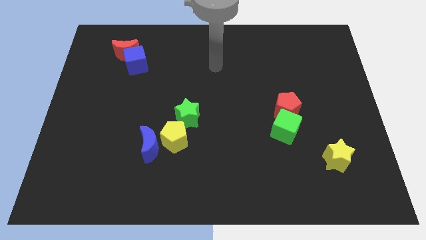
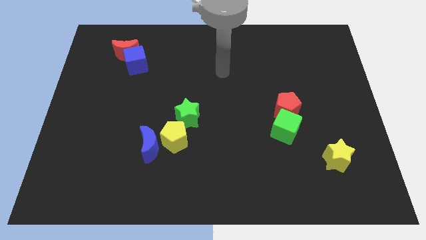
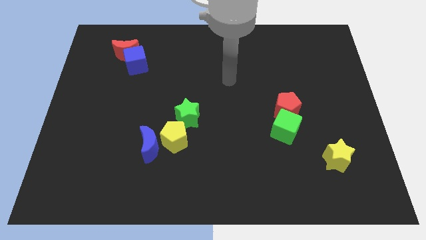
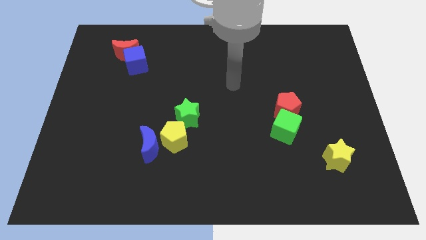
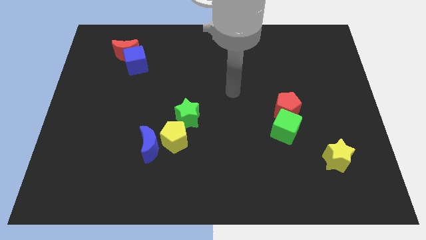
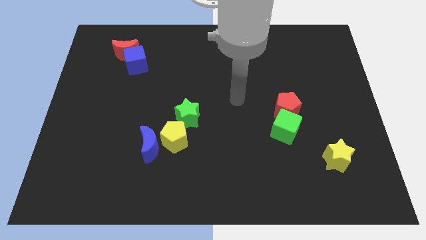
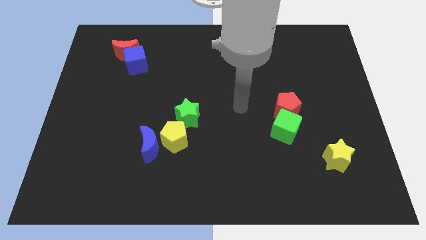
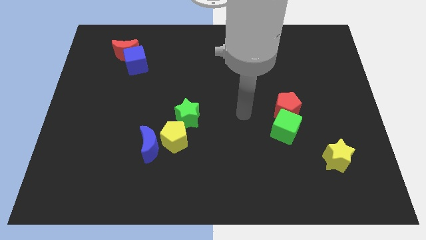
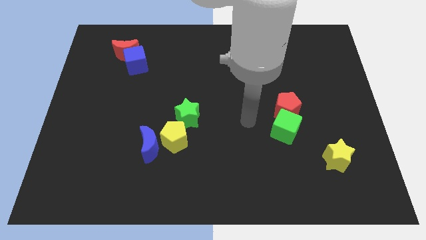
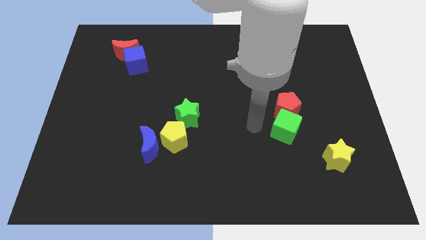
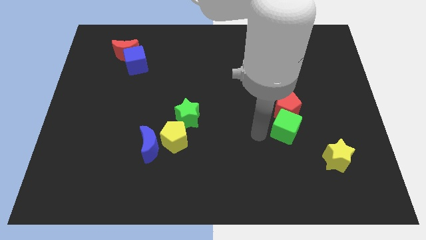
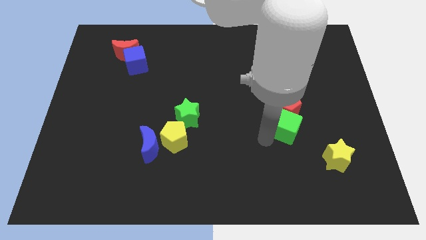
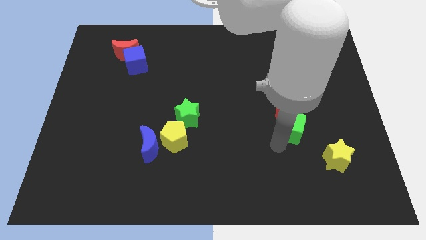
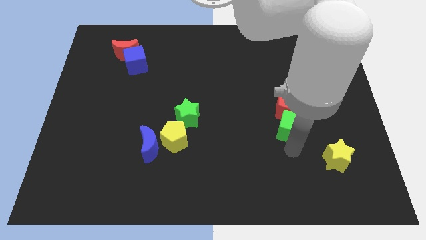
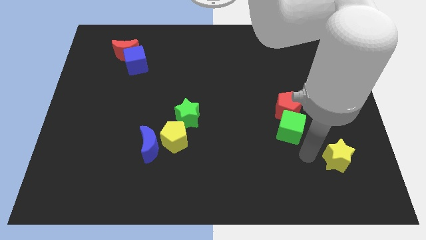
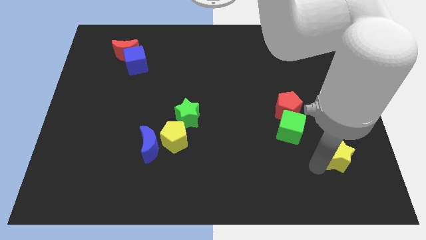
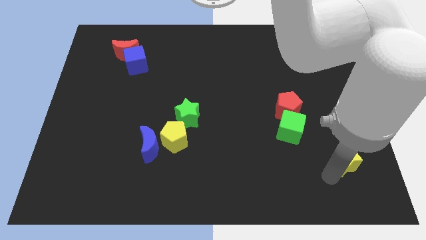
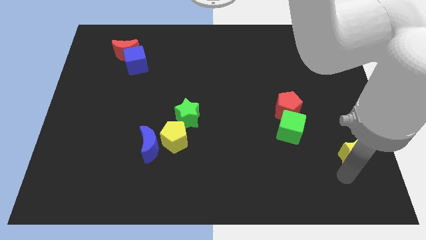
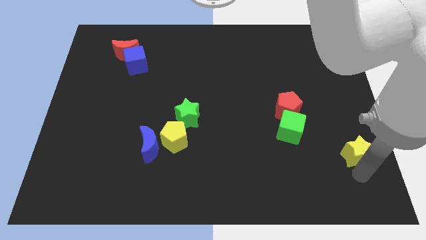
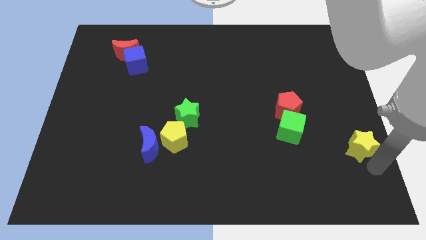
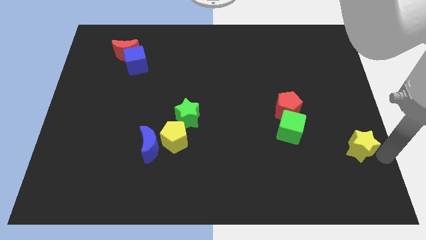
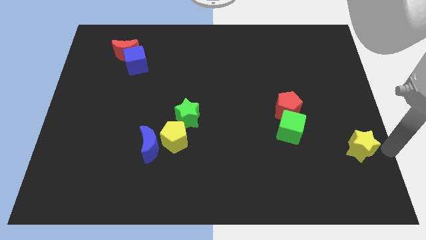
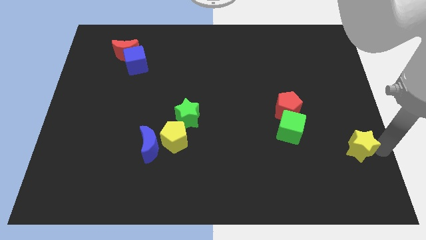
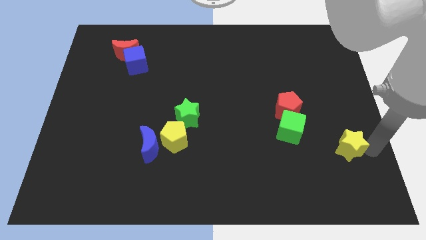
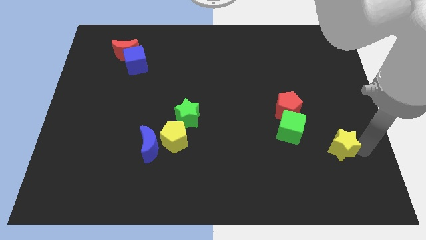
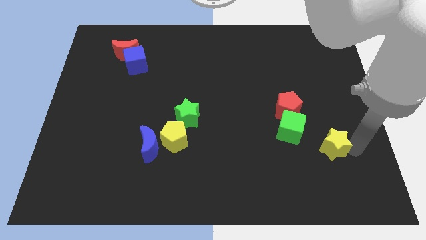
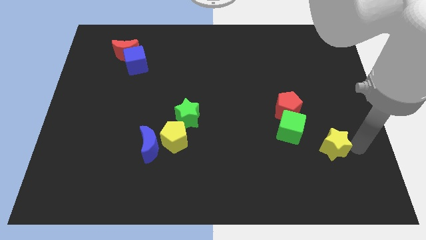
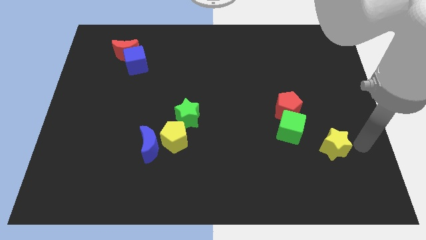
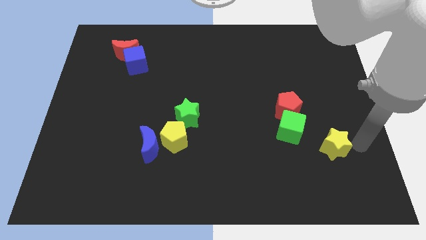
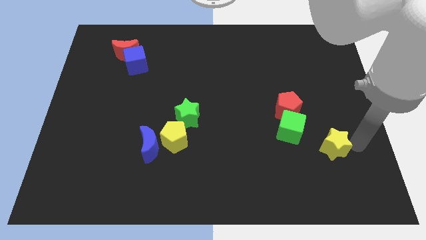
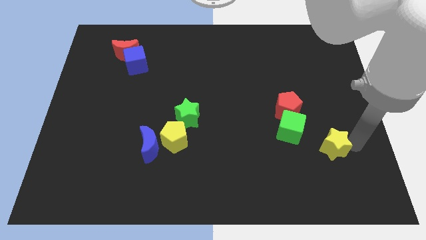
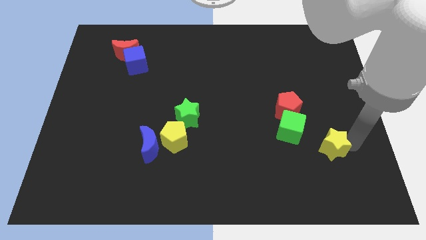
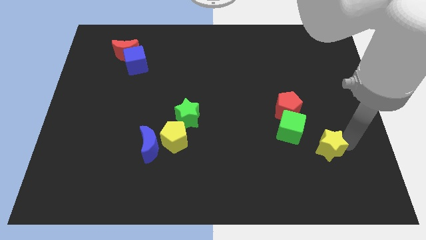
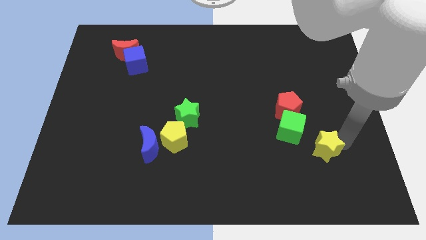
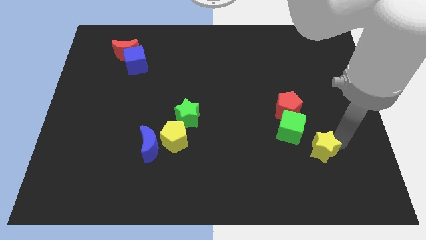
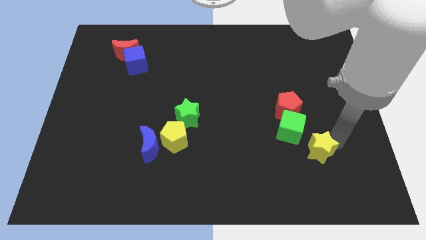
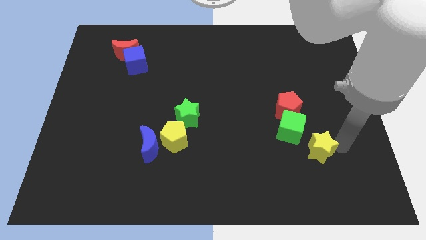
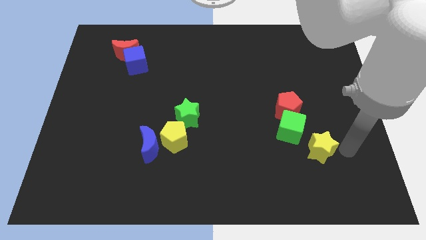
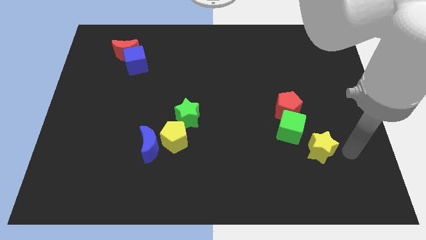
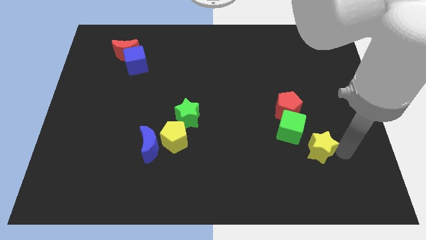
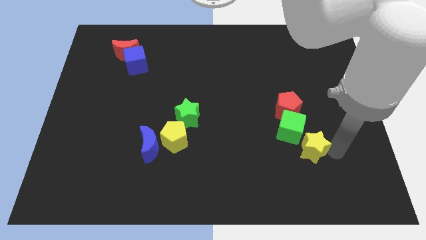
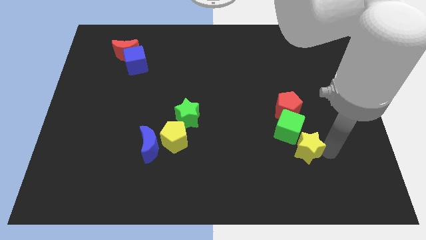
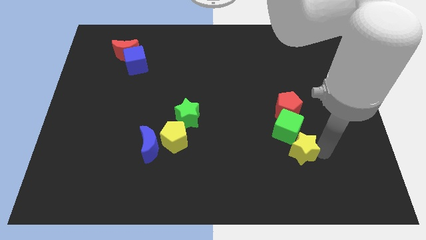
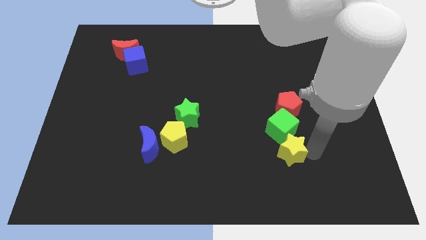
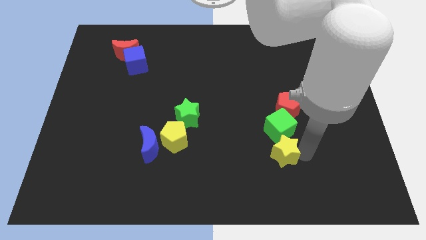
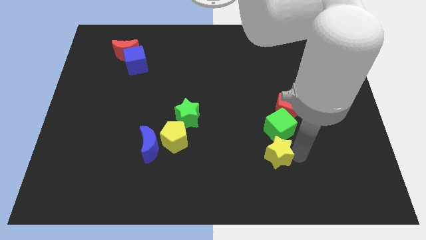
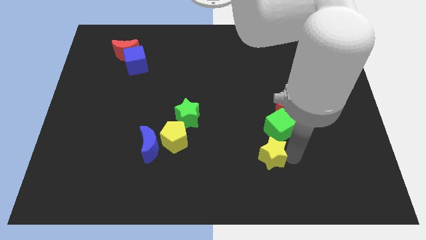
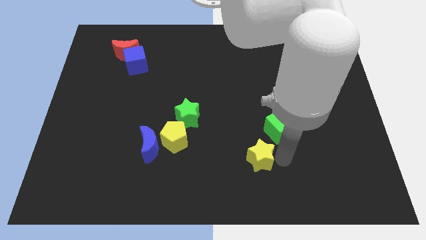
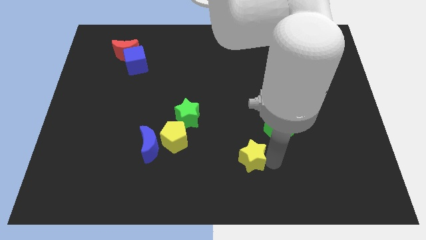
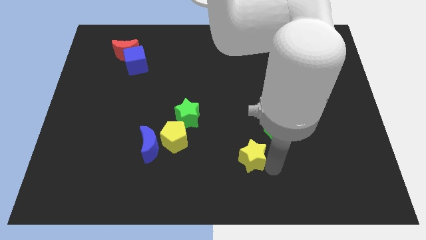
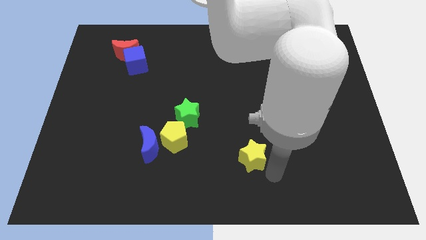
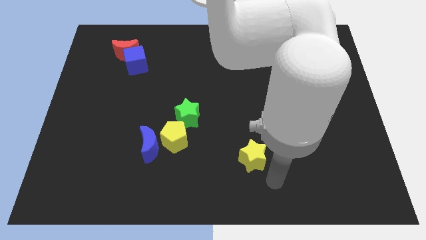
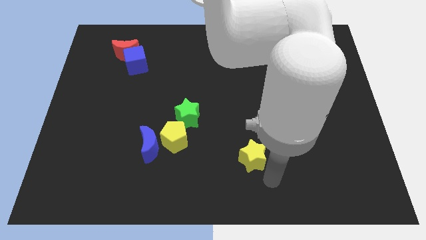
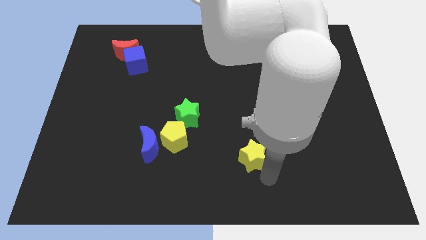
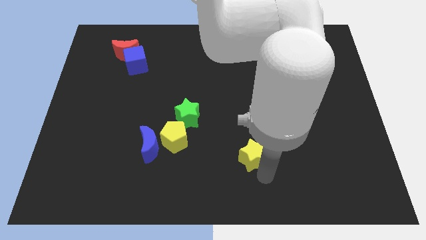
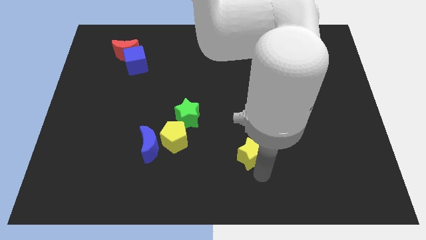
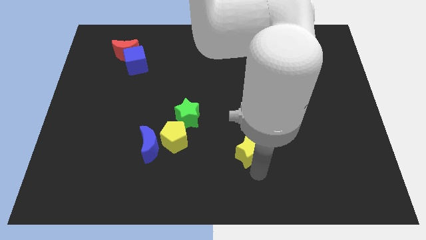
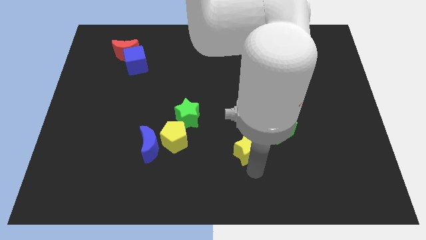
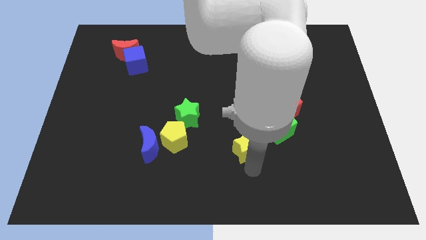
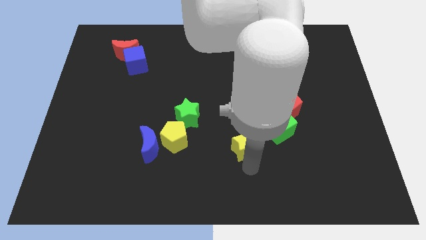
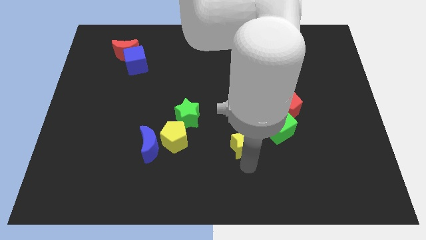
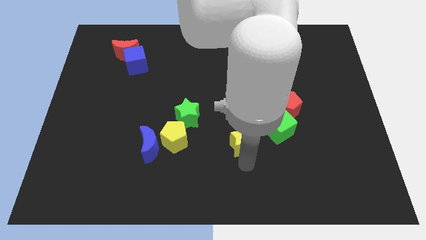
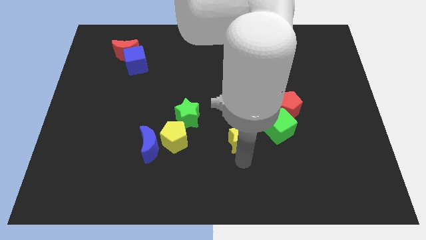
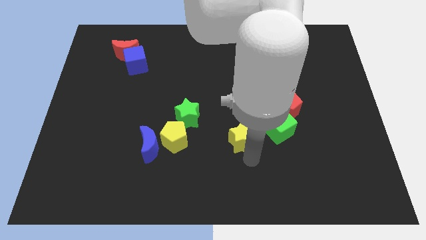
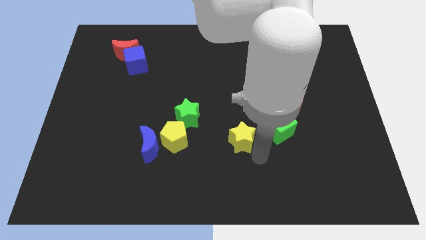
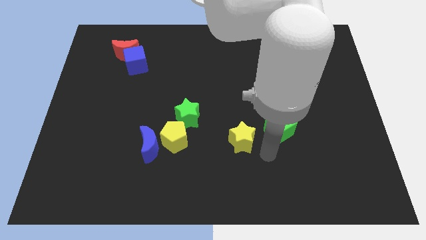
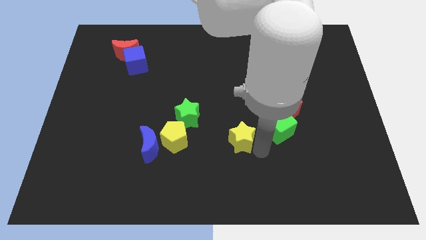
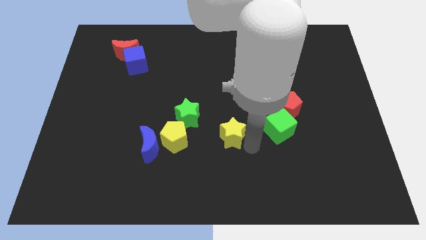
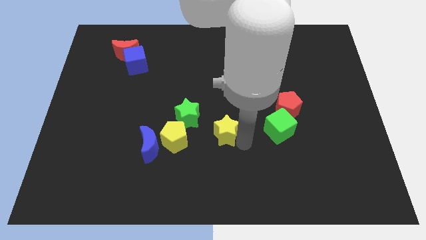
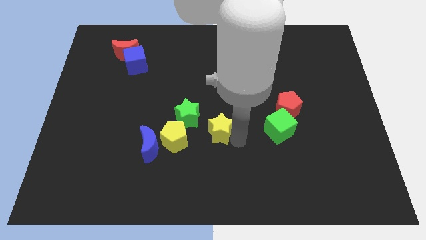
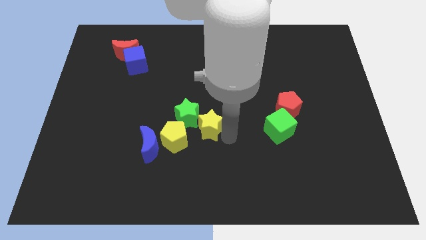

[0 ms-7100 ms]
push the yellow star to the green star

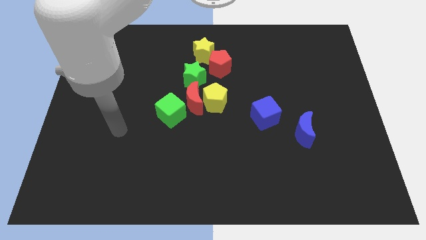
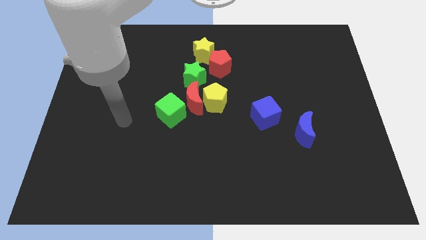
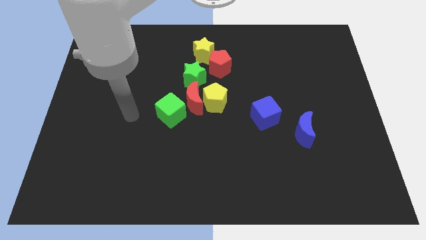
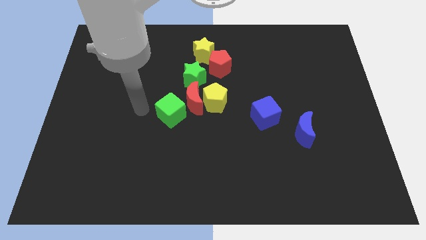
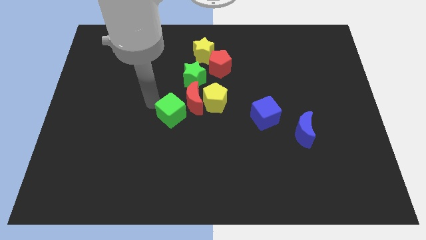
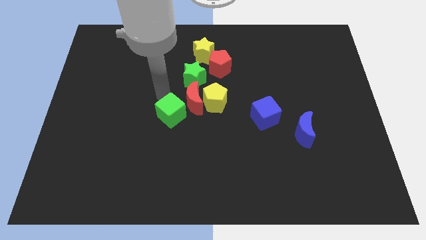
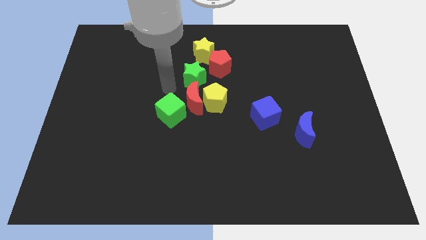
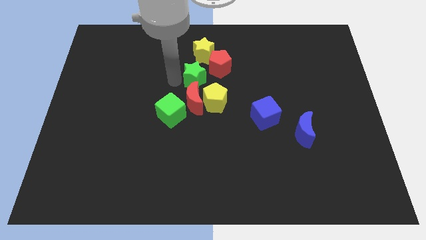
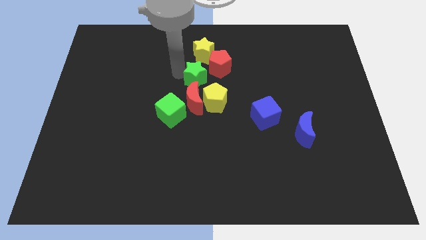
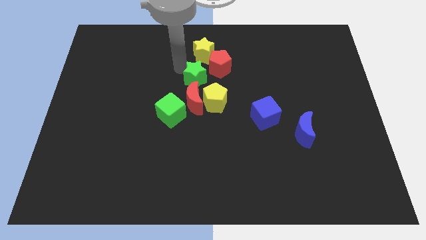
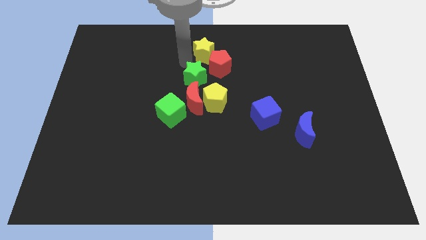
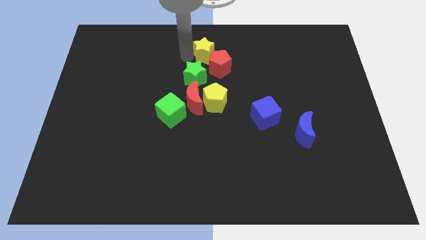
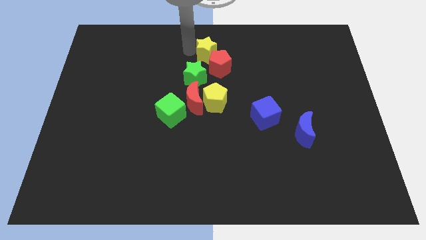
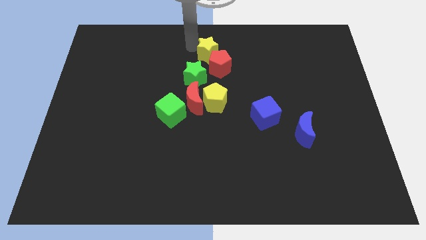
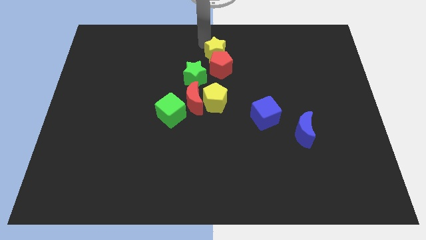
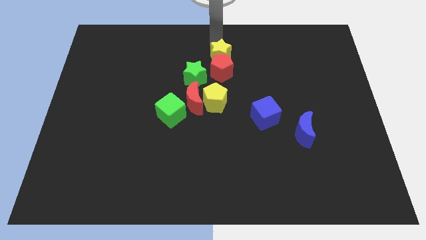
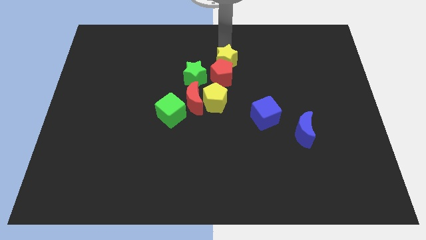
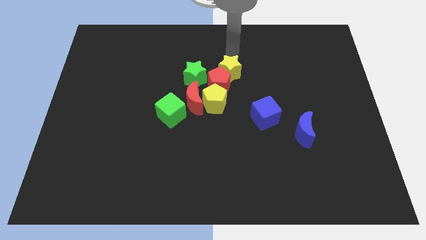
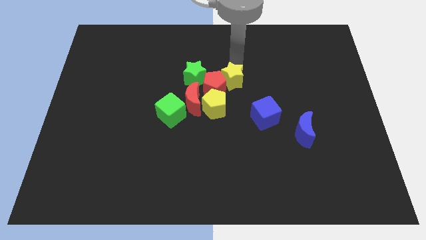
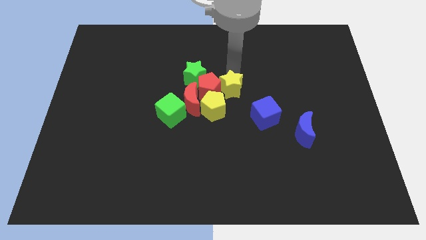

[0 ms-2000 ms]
slide the red pentagon to the red moon
